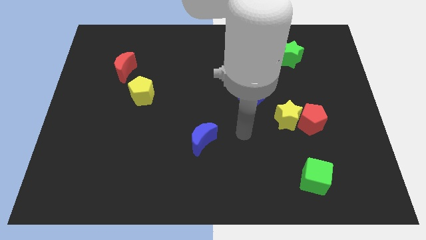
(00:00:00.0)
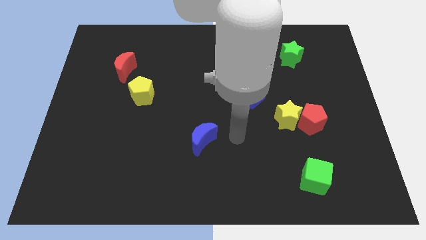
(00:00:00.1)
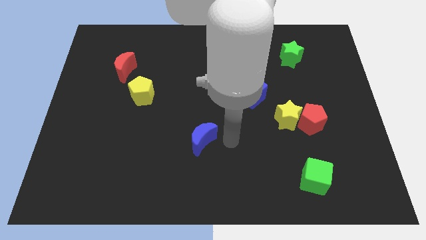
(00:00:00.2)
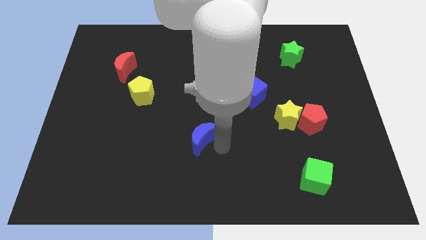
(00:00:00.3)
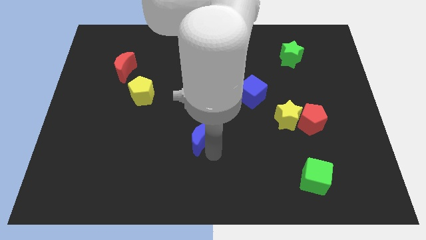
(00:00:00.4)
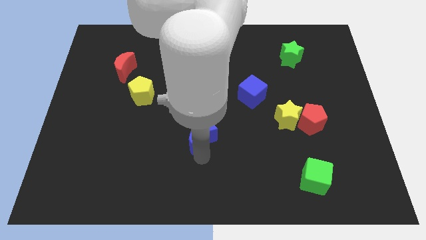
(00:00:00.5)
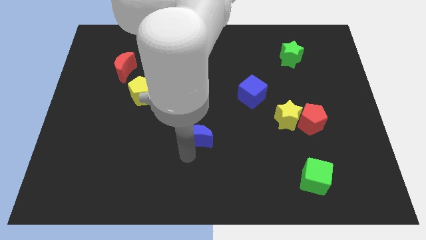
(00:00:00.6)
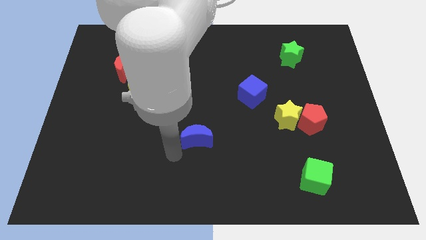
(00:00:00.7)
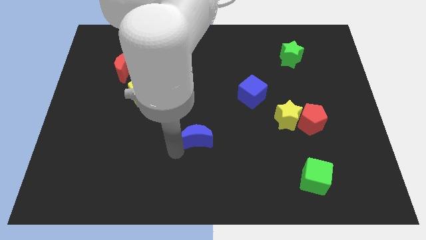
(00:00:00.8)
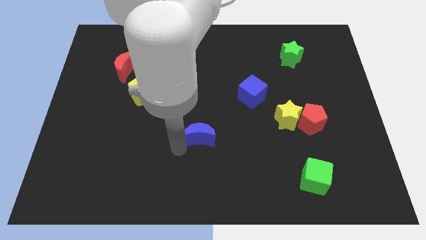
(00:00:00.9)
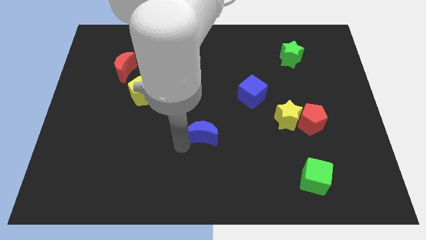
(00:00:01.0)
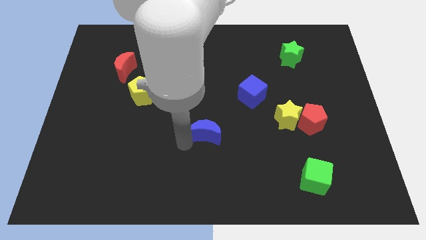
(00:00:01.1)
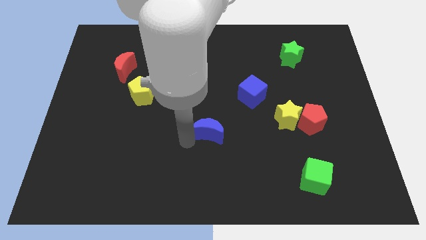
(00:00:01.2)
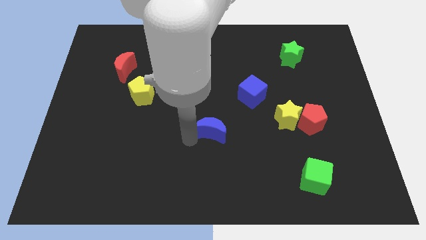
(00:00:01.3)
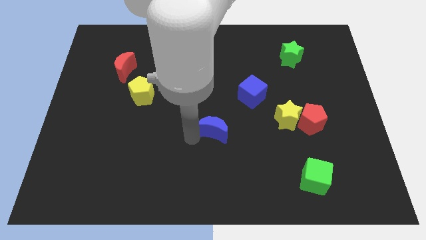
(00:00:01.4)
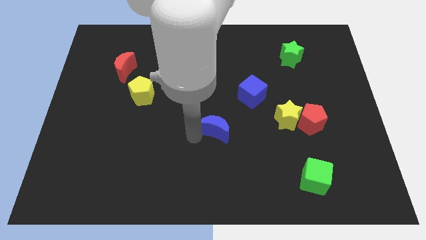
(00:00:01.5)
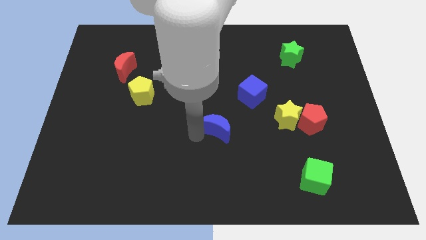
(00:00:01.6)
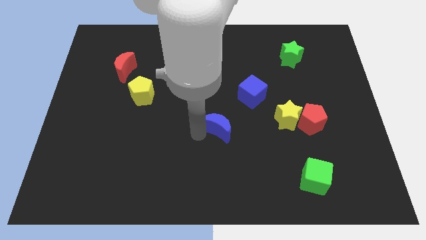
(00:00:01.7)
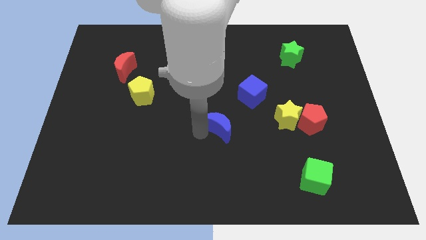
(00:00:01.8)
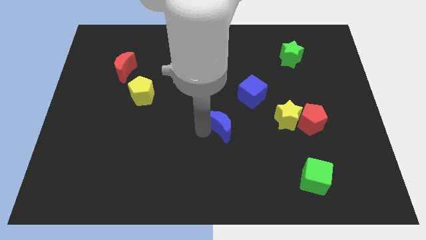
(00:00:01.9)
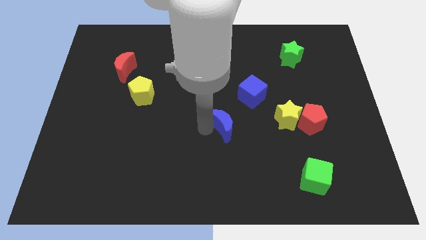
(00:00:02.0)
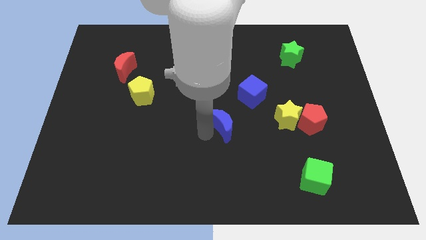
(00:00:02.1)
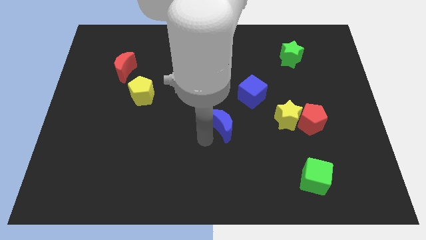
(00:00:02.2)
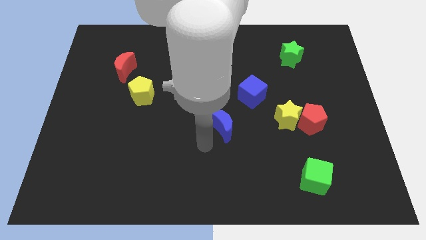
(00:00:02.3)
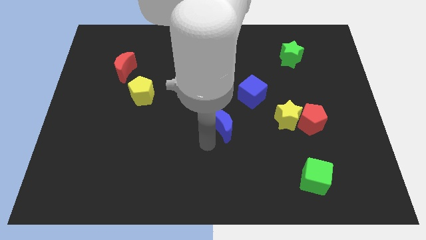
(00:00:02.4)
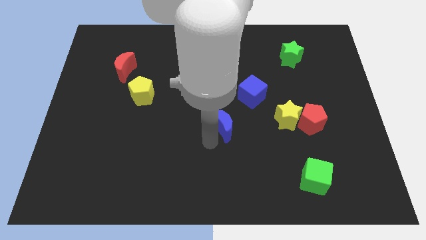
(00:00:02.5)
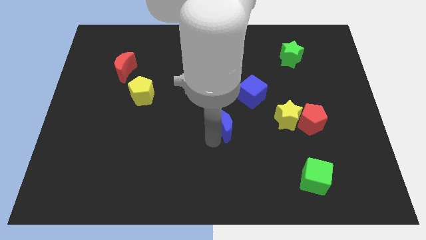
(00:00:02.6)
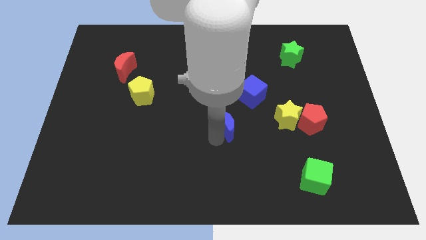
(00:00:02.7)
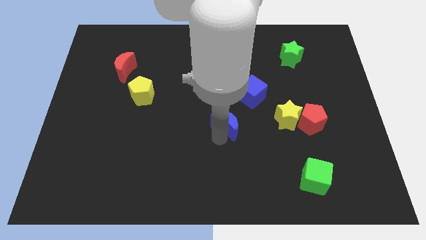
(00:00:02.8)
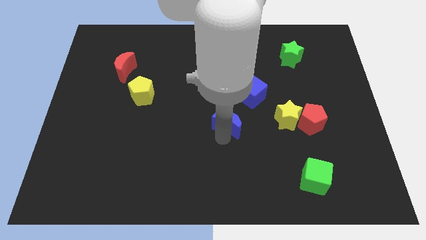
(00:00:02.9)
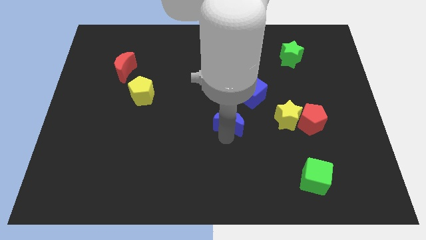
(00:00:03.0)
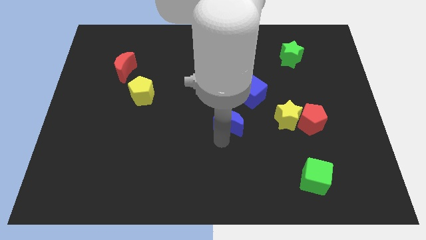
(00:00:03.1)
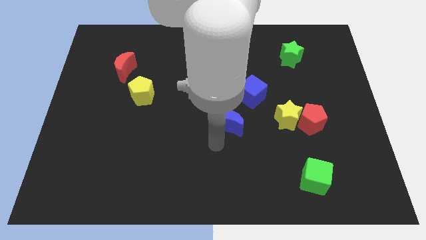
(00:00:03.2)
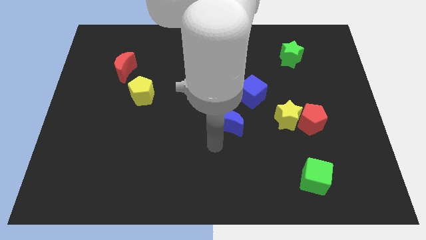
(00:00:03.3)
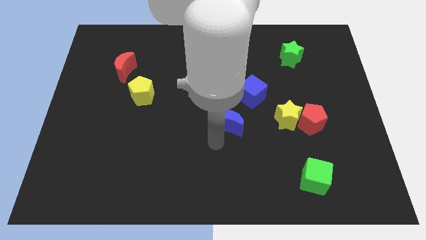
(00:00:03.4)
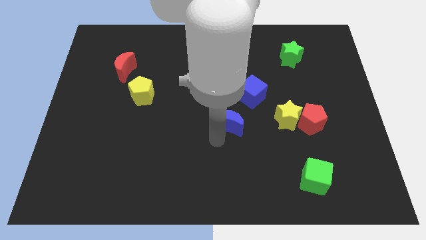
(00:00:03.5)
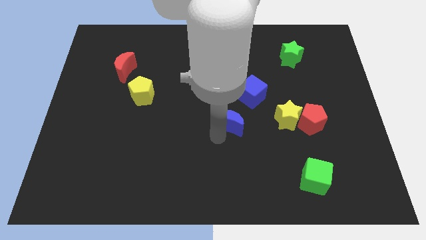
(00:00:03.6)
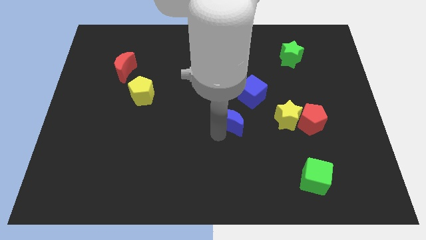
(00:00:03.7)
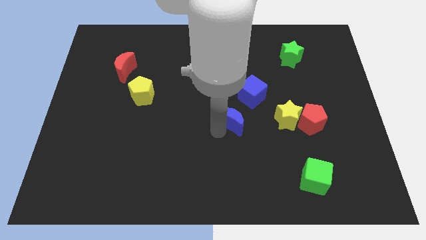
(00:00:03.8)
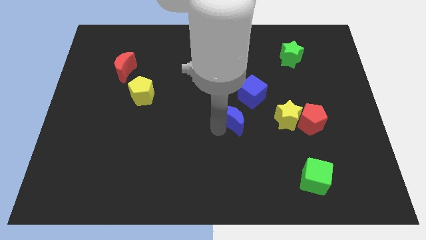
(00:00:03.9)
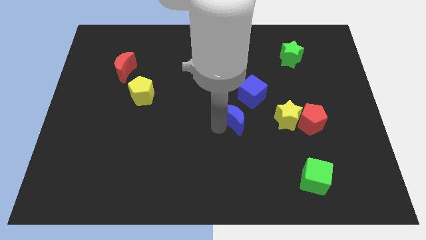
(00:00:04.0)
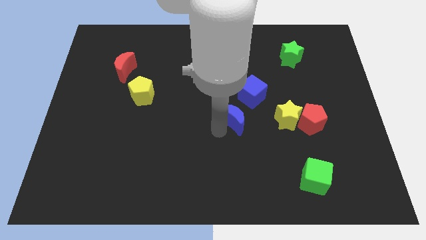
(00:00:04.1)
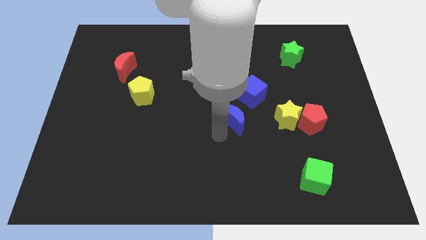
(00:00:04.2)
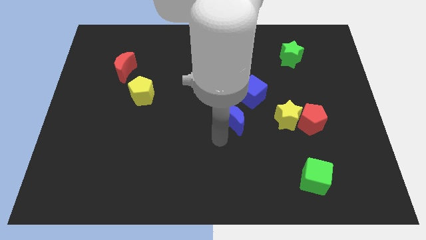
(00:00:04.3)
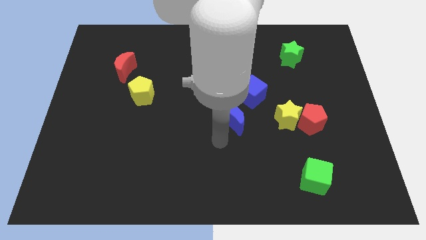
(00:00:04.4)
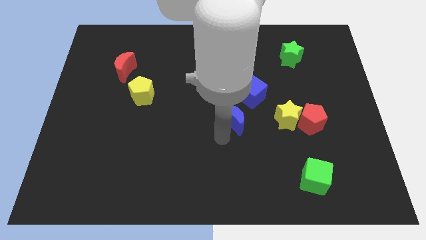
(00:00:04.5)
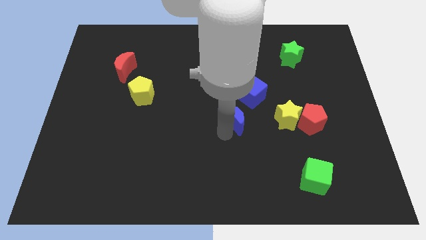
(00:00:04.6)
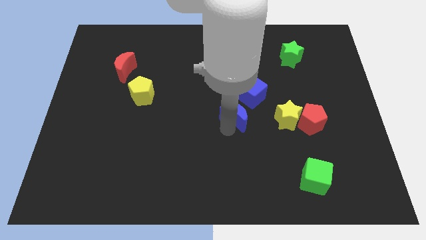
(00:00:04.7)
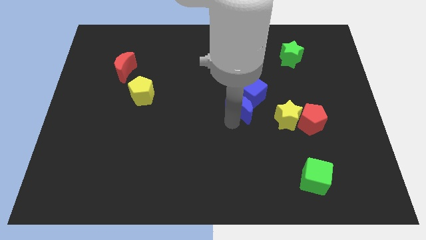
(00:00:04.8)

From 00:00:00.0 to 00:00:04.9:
slide the blue moon next to the blue cube

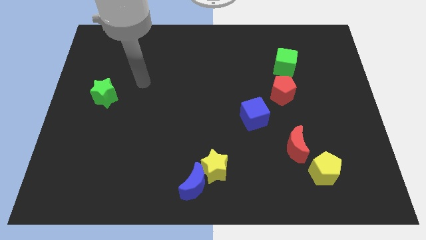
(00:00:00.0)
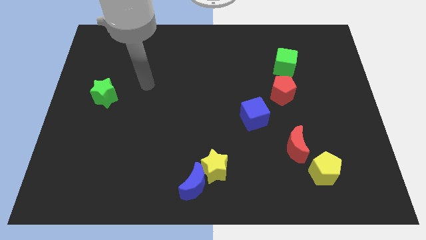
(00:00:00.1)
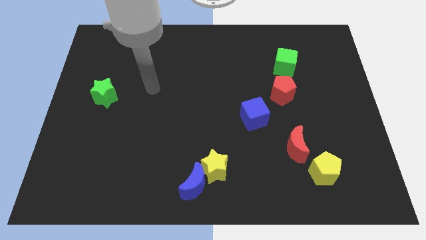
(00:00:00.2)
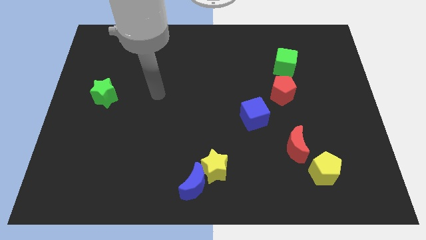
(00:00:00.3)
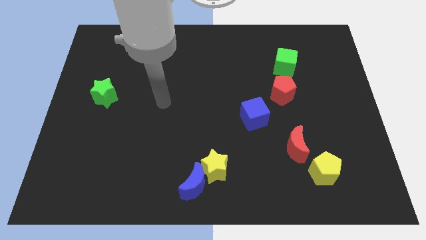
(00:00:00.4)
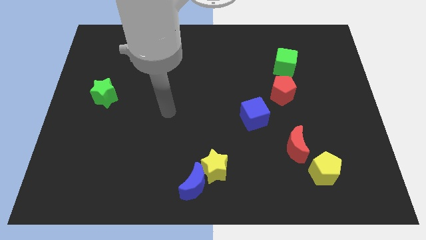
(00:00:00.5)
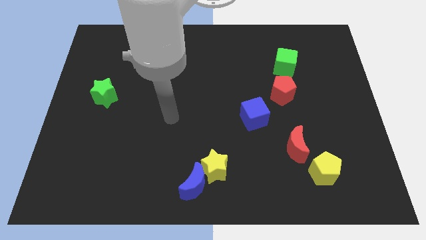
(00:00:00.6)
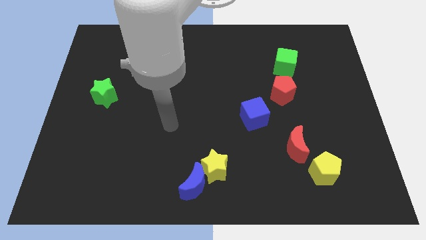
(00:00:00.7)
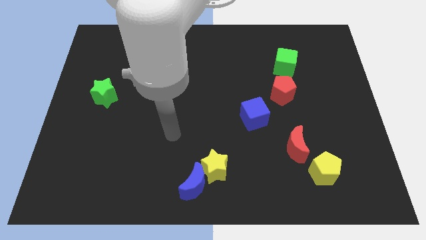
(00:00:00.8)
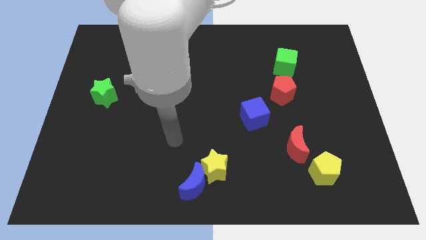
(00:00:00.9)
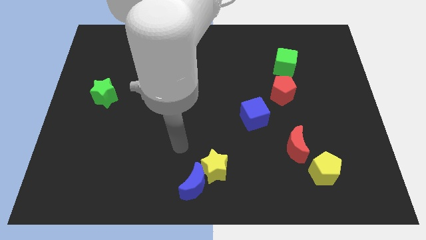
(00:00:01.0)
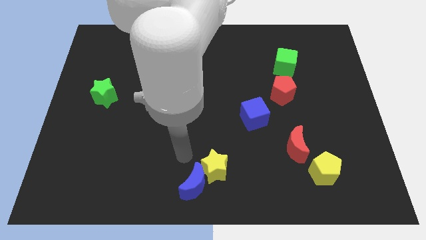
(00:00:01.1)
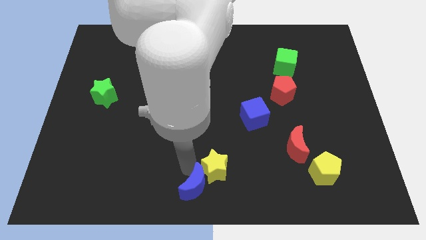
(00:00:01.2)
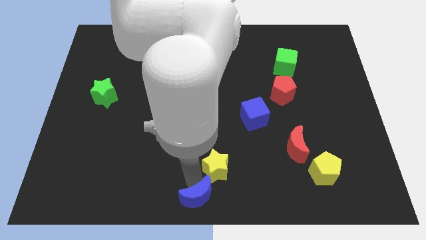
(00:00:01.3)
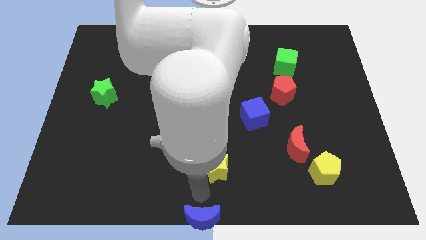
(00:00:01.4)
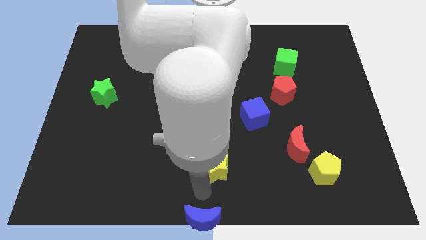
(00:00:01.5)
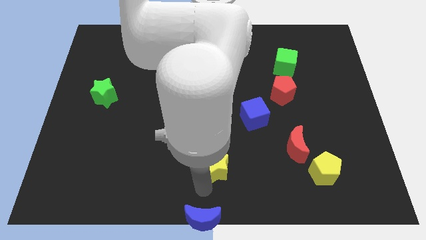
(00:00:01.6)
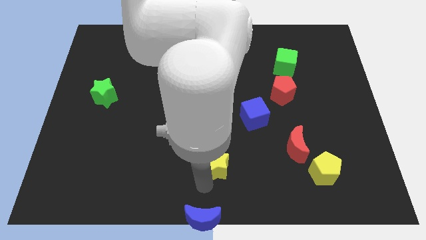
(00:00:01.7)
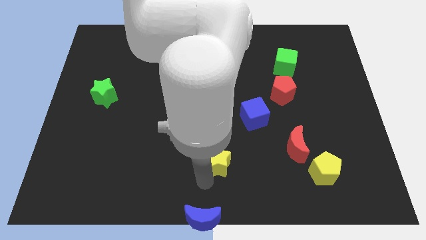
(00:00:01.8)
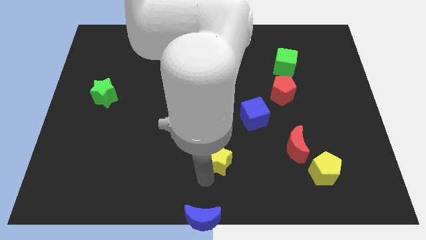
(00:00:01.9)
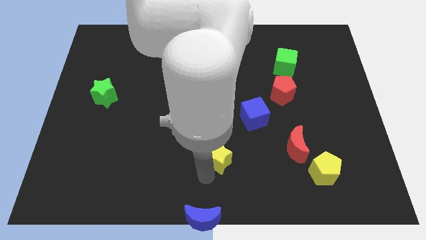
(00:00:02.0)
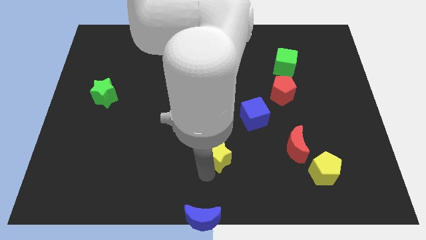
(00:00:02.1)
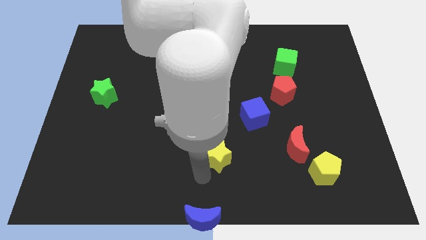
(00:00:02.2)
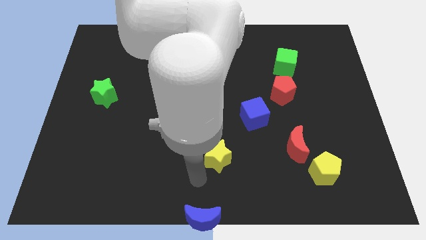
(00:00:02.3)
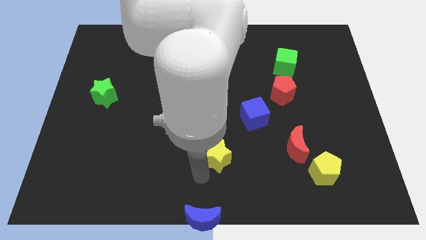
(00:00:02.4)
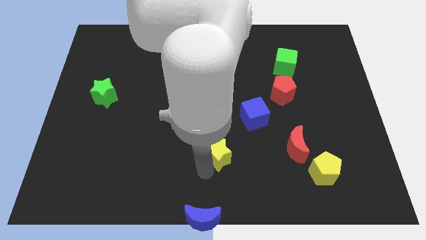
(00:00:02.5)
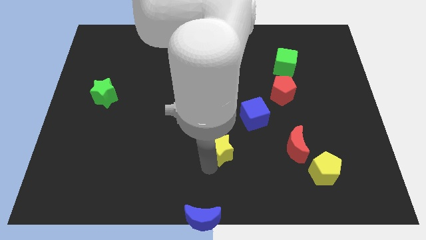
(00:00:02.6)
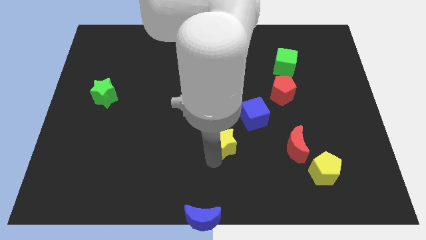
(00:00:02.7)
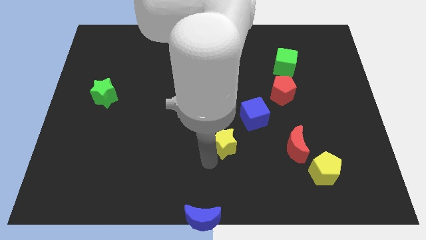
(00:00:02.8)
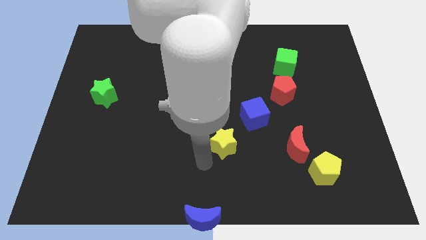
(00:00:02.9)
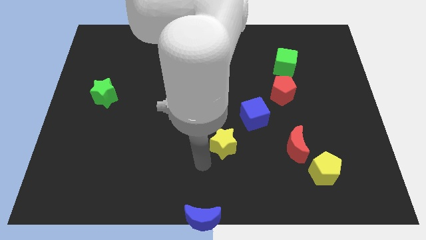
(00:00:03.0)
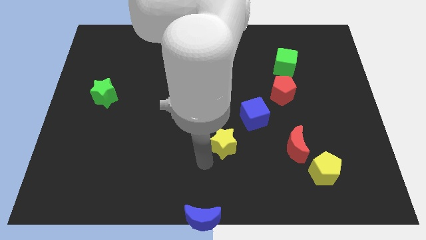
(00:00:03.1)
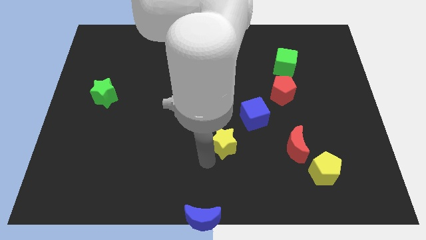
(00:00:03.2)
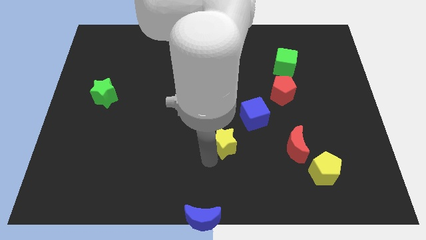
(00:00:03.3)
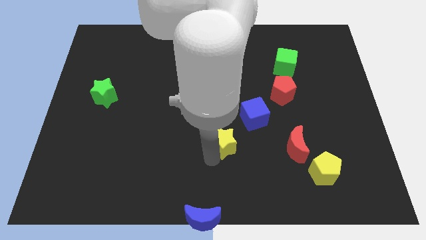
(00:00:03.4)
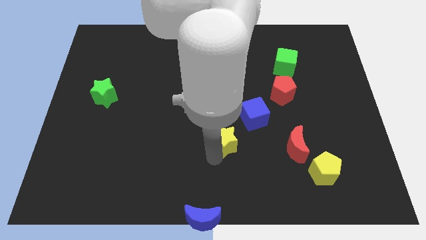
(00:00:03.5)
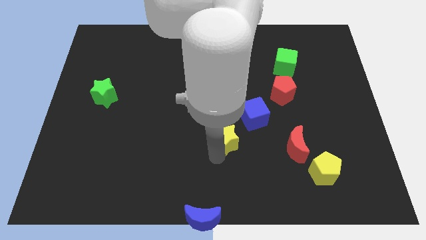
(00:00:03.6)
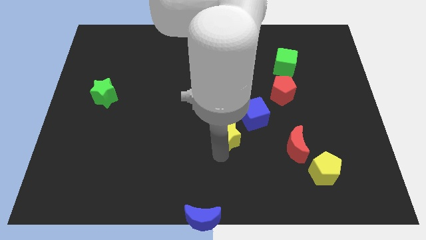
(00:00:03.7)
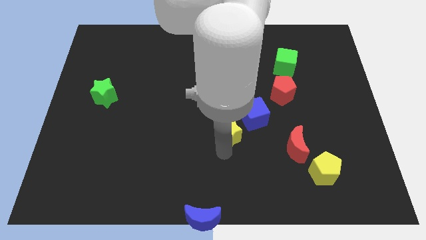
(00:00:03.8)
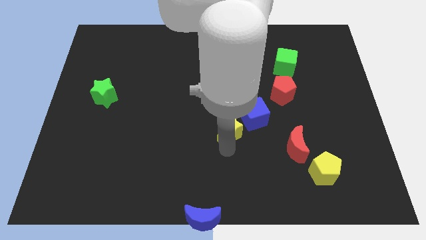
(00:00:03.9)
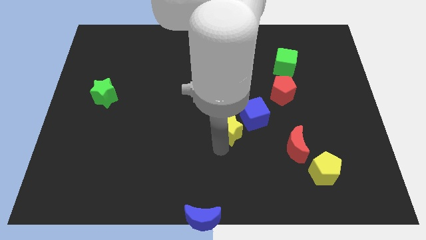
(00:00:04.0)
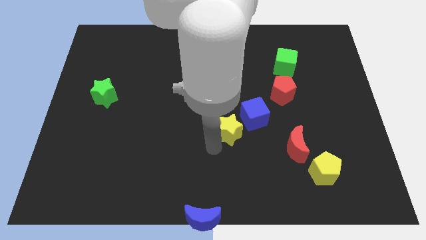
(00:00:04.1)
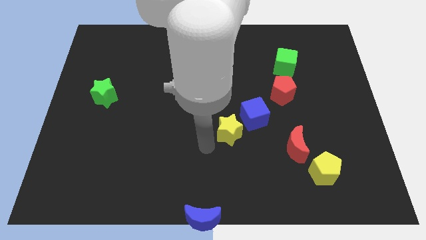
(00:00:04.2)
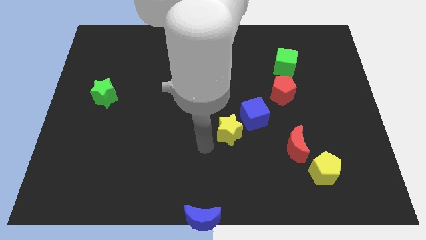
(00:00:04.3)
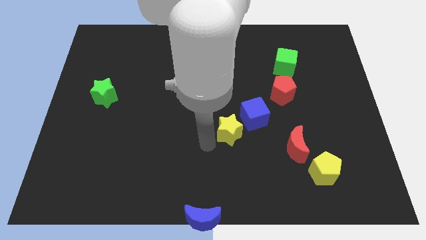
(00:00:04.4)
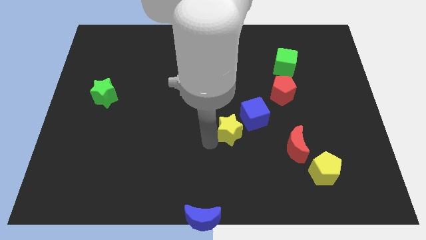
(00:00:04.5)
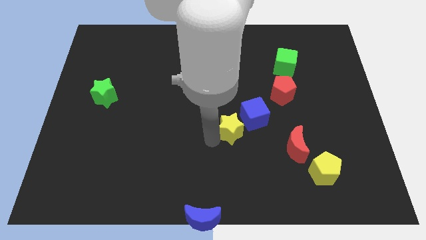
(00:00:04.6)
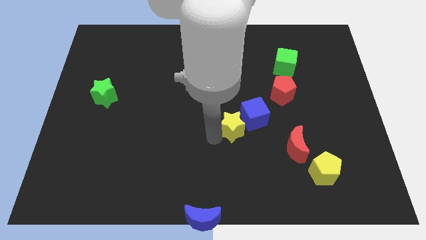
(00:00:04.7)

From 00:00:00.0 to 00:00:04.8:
push the yellow star next to the blue cube
